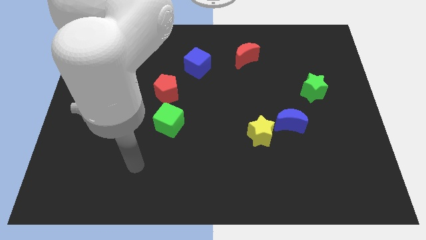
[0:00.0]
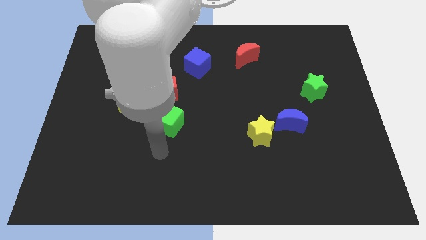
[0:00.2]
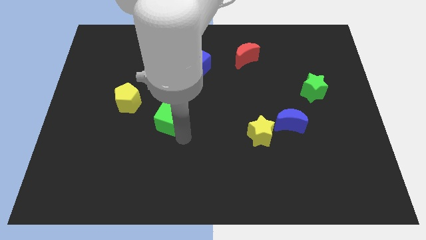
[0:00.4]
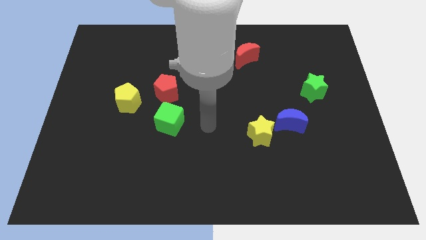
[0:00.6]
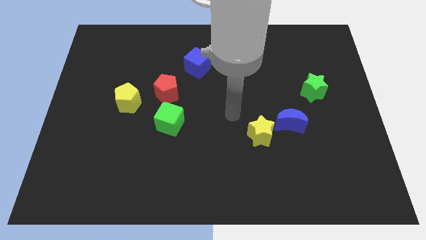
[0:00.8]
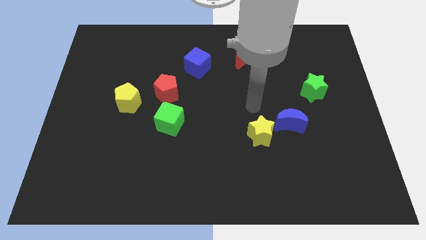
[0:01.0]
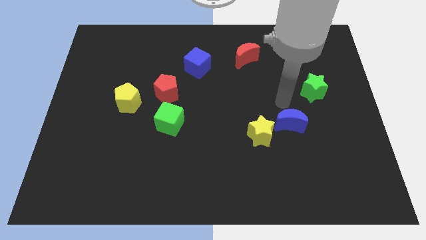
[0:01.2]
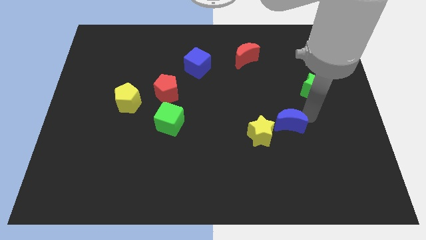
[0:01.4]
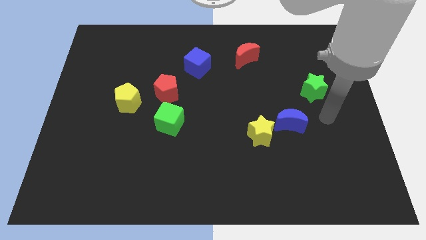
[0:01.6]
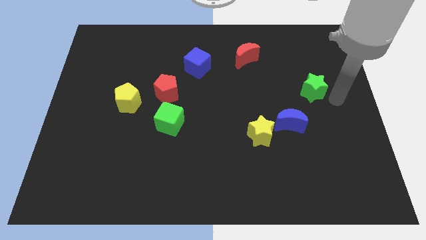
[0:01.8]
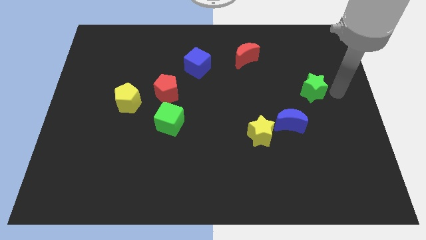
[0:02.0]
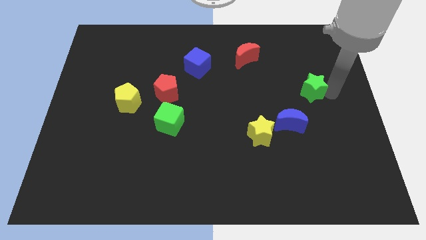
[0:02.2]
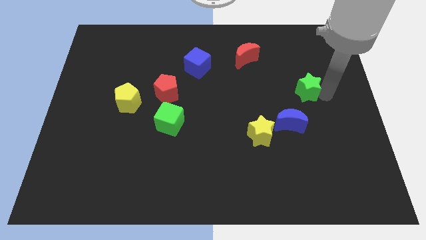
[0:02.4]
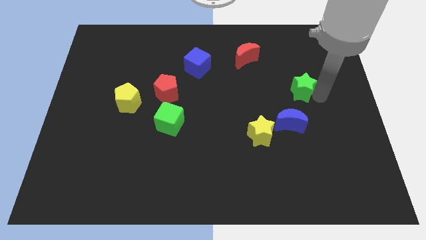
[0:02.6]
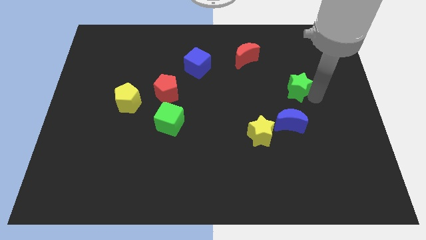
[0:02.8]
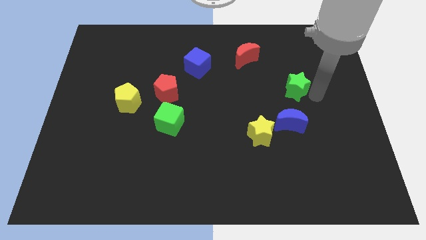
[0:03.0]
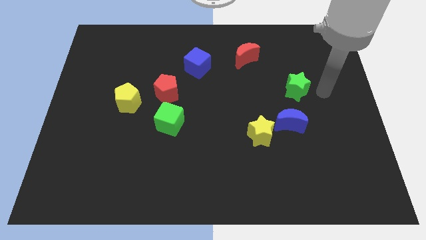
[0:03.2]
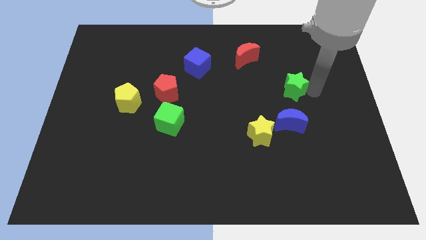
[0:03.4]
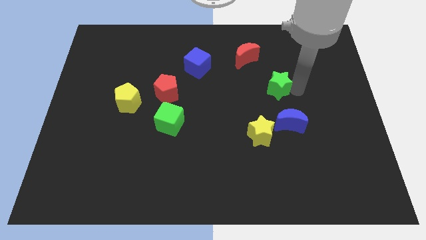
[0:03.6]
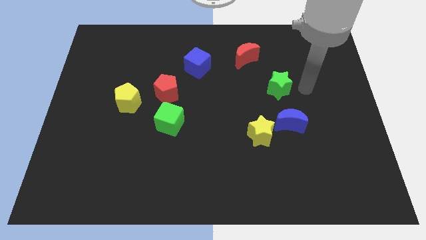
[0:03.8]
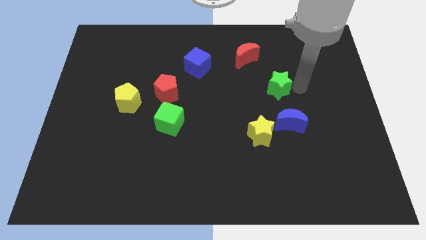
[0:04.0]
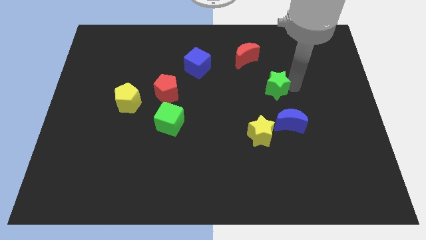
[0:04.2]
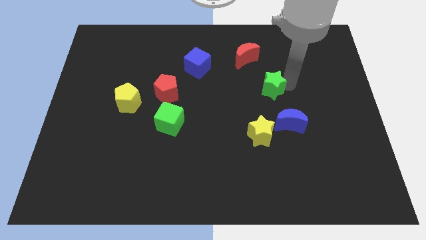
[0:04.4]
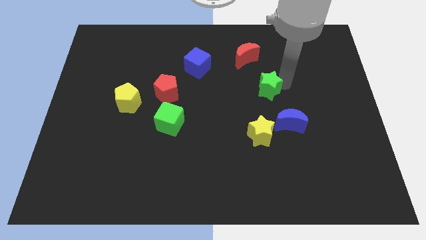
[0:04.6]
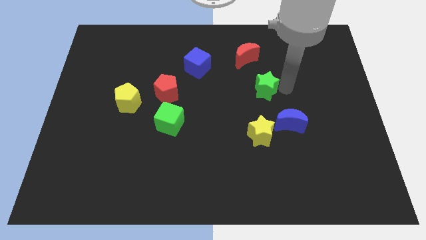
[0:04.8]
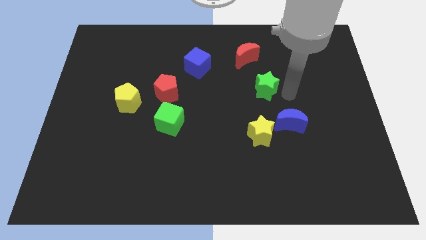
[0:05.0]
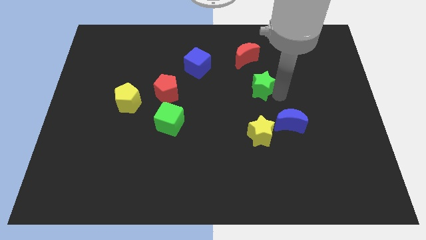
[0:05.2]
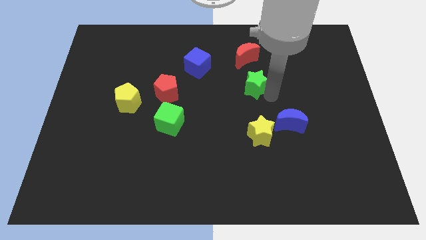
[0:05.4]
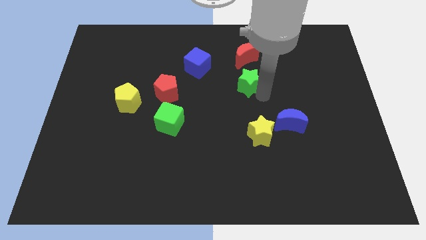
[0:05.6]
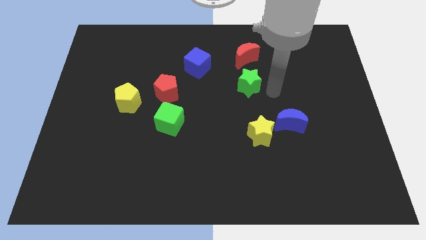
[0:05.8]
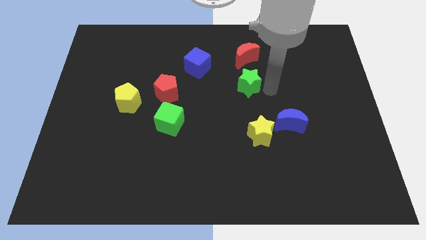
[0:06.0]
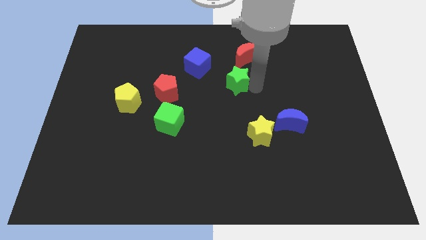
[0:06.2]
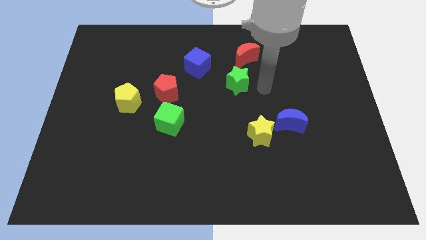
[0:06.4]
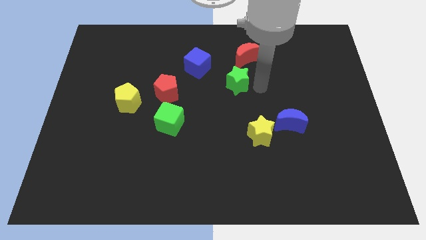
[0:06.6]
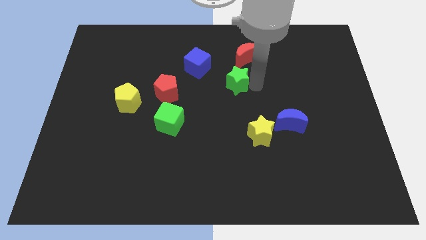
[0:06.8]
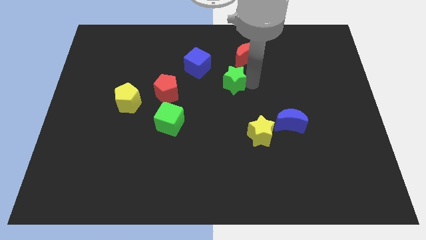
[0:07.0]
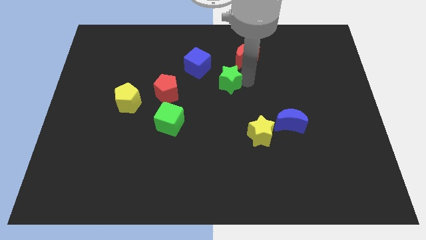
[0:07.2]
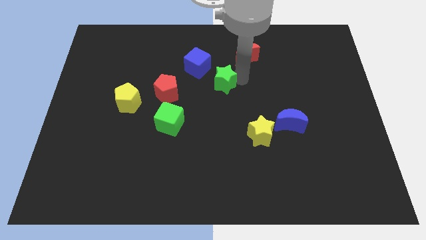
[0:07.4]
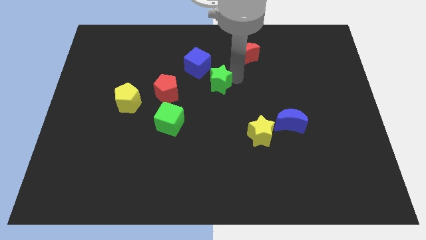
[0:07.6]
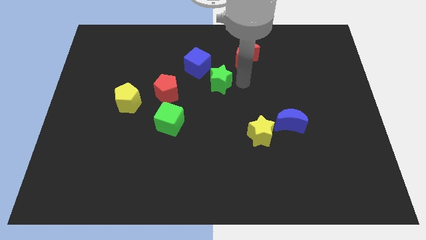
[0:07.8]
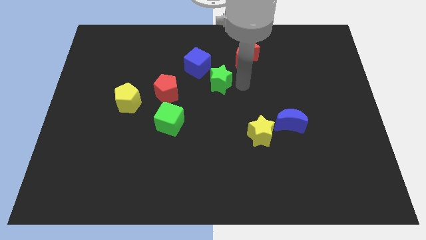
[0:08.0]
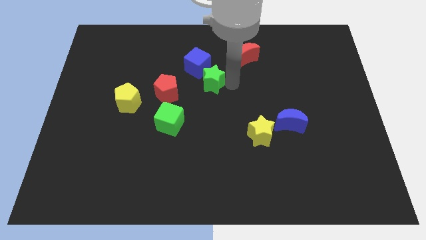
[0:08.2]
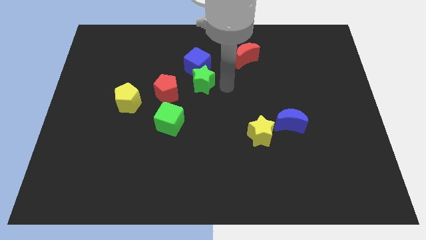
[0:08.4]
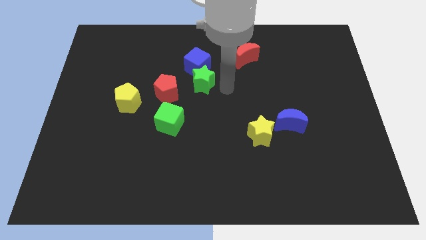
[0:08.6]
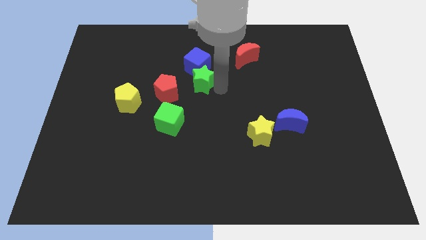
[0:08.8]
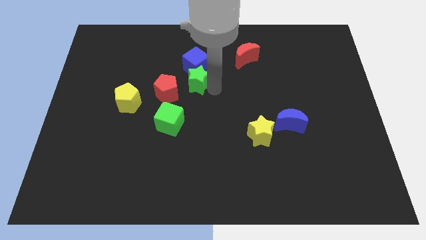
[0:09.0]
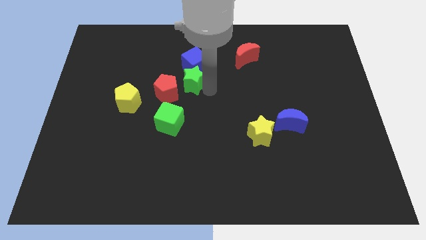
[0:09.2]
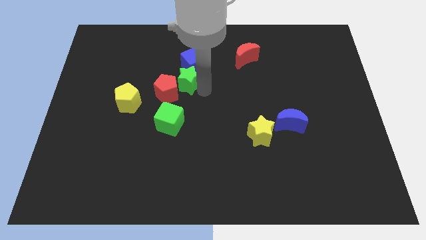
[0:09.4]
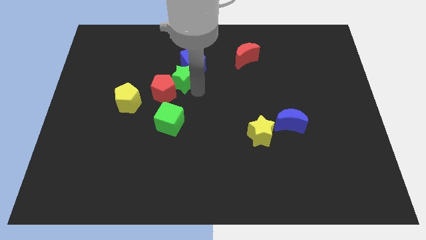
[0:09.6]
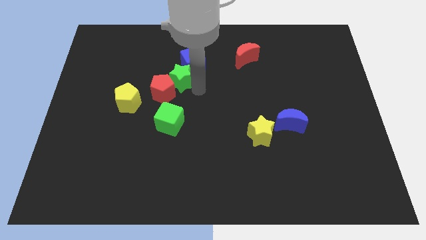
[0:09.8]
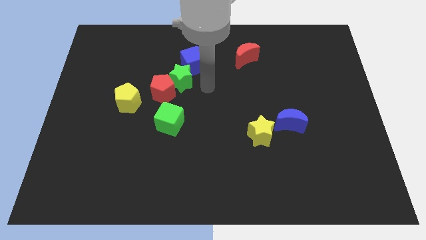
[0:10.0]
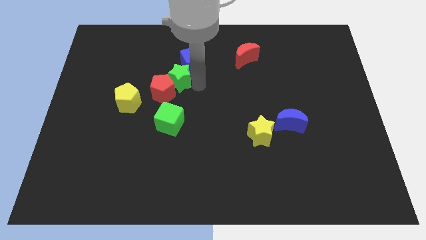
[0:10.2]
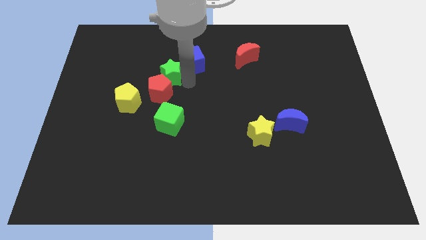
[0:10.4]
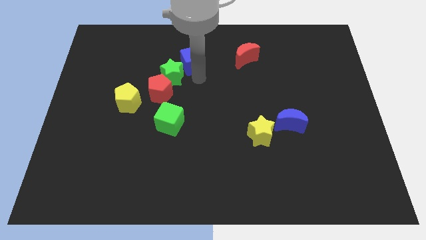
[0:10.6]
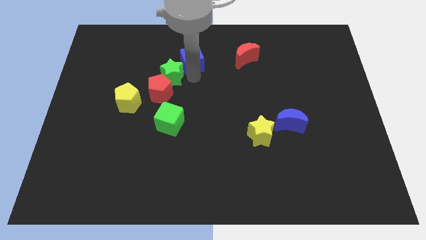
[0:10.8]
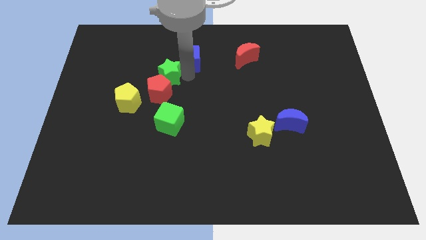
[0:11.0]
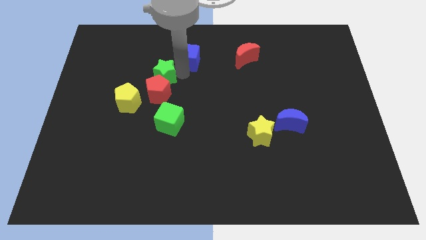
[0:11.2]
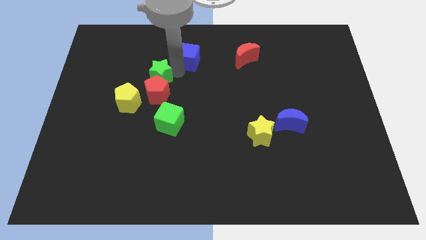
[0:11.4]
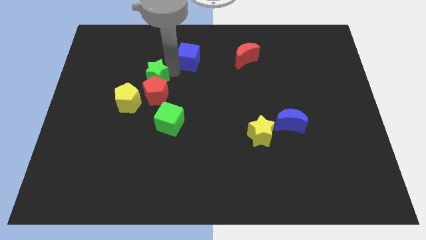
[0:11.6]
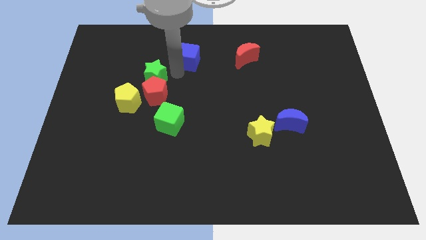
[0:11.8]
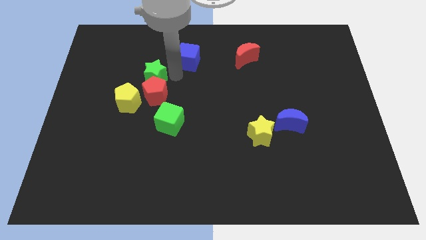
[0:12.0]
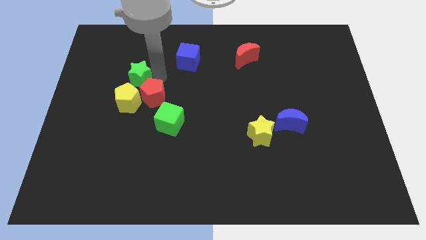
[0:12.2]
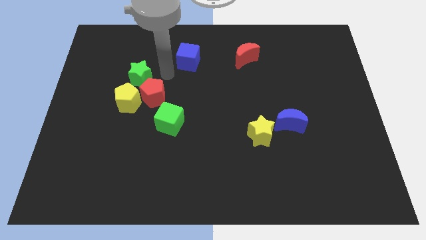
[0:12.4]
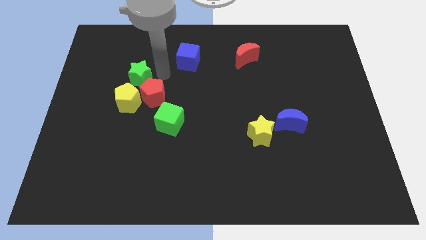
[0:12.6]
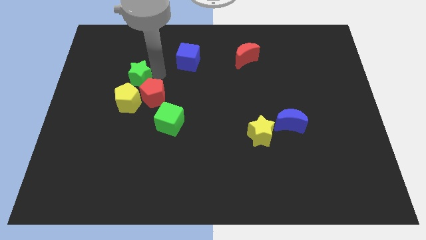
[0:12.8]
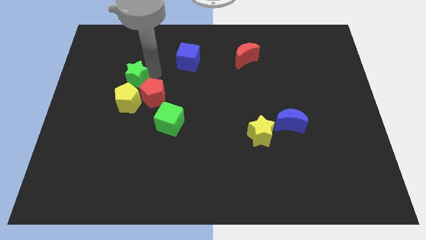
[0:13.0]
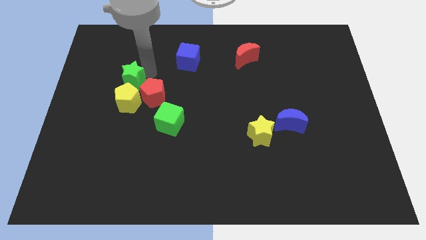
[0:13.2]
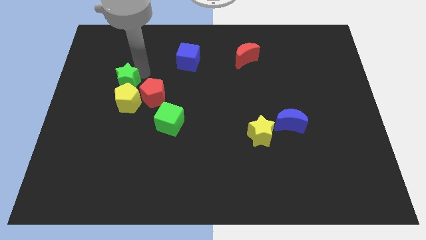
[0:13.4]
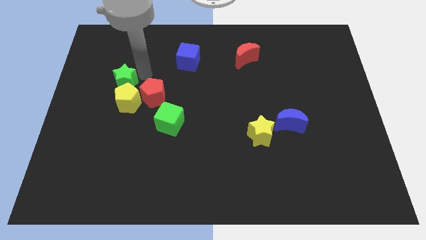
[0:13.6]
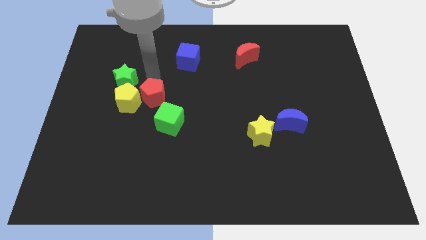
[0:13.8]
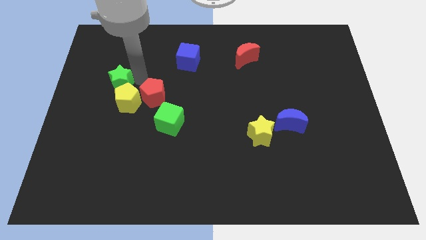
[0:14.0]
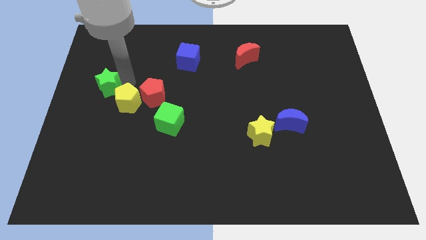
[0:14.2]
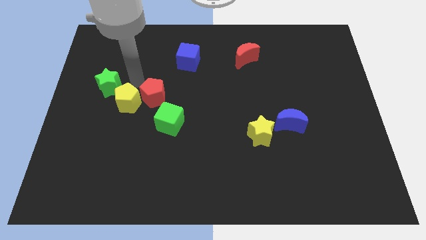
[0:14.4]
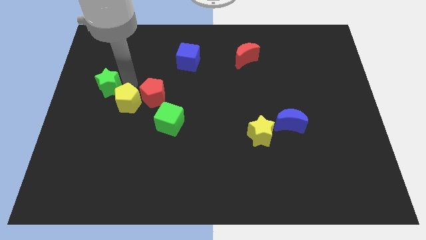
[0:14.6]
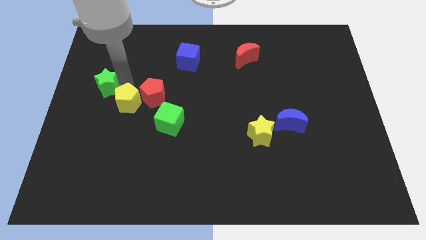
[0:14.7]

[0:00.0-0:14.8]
put the green star to the left side
